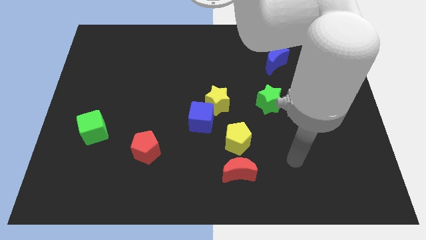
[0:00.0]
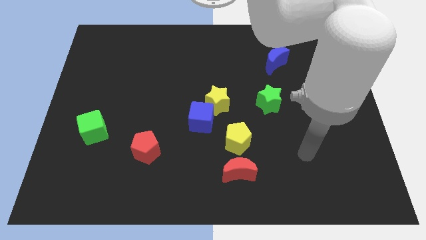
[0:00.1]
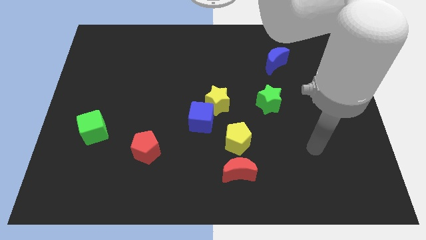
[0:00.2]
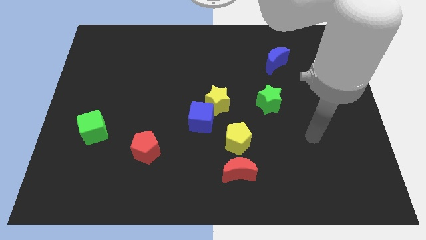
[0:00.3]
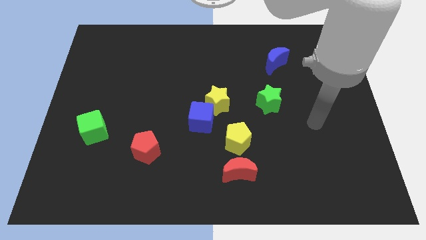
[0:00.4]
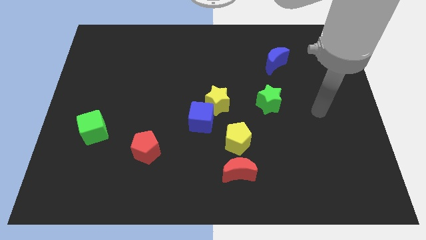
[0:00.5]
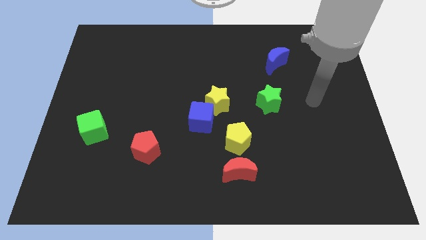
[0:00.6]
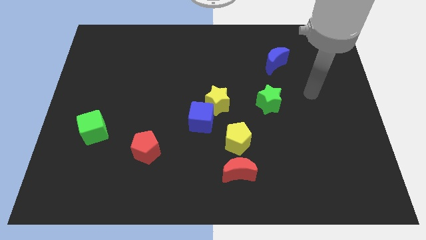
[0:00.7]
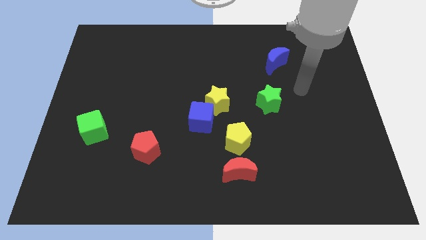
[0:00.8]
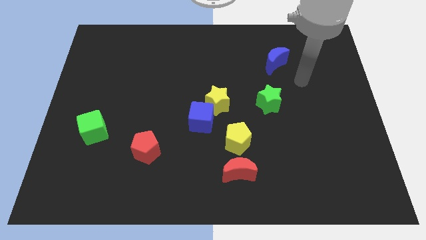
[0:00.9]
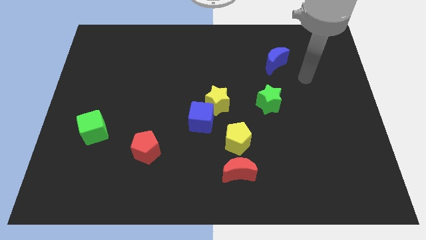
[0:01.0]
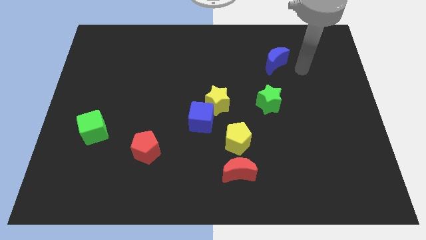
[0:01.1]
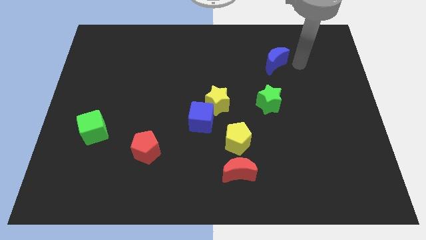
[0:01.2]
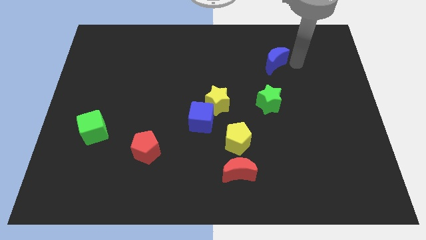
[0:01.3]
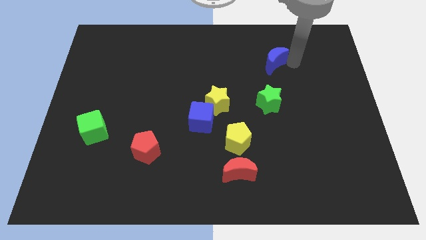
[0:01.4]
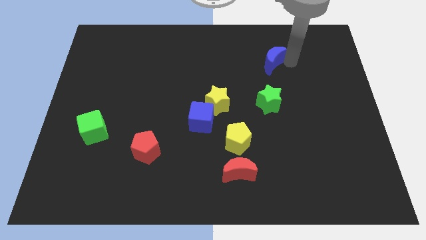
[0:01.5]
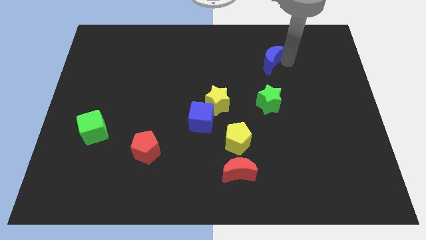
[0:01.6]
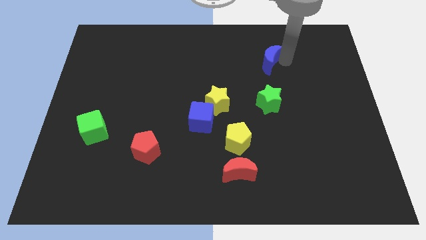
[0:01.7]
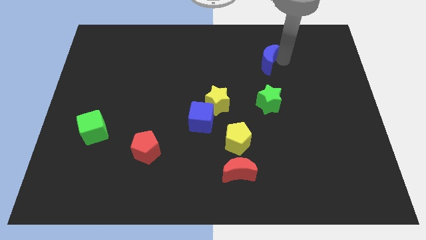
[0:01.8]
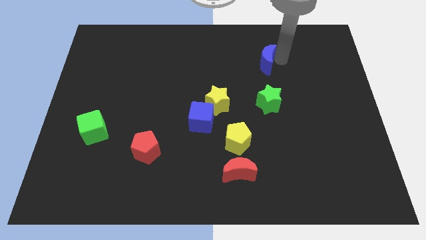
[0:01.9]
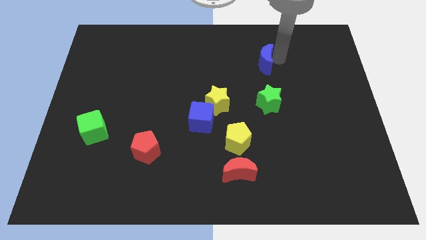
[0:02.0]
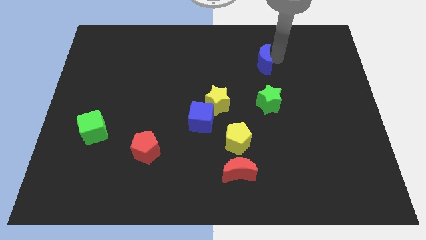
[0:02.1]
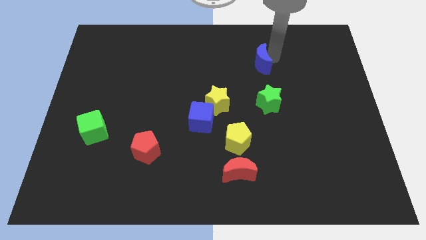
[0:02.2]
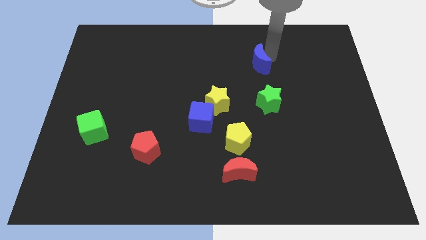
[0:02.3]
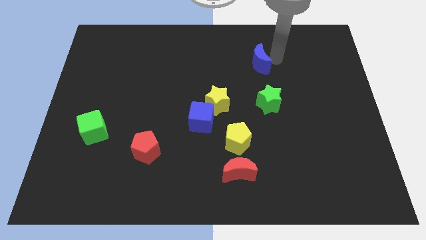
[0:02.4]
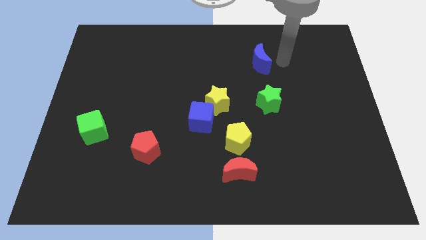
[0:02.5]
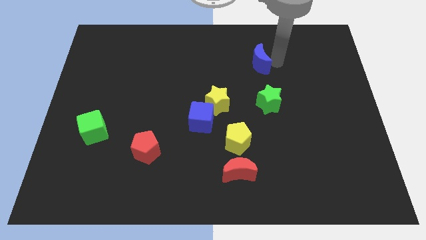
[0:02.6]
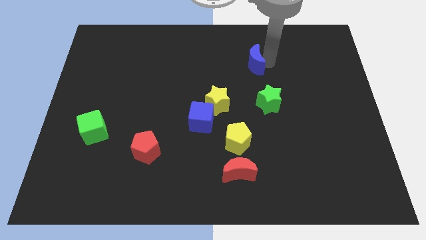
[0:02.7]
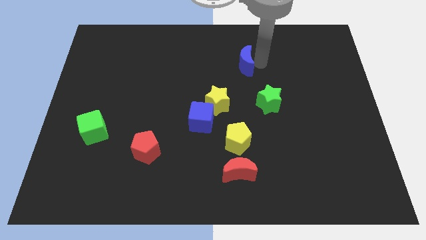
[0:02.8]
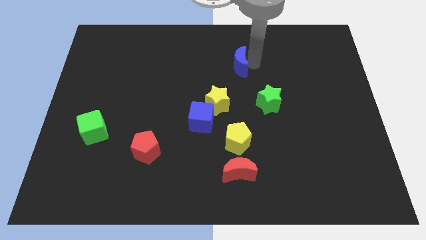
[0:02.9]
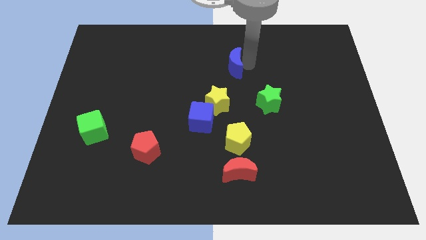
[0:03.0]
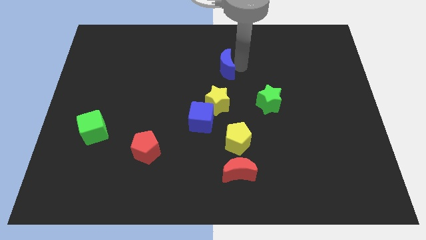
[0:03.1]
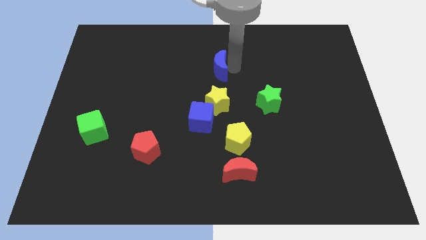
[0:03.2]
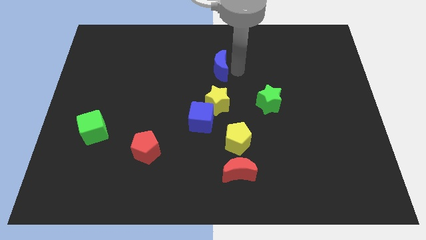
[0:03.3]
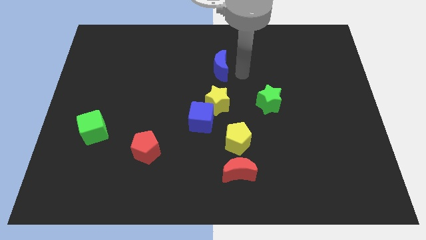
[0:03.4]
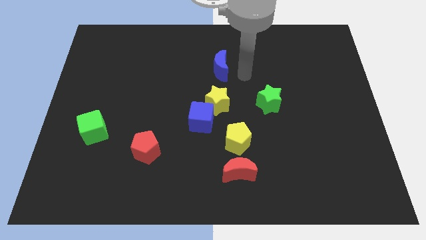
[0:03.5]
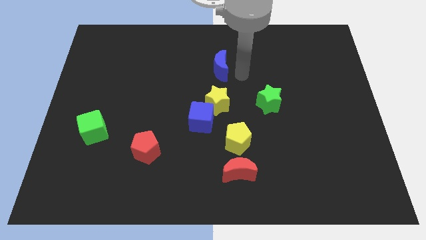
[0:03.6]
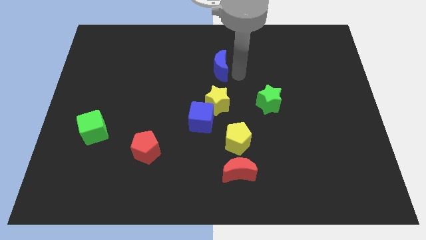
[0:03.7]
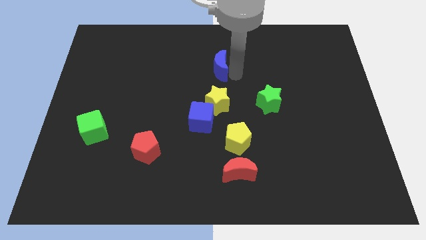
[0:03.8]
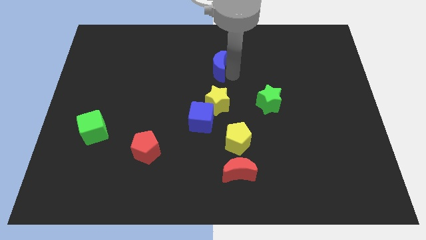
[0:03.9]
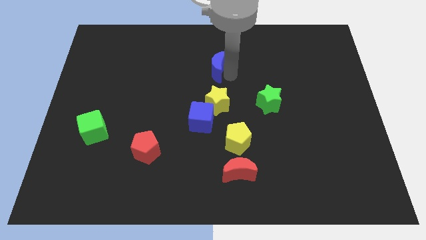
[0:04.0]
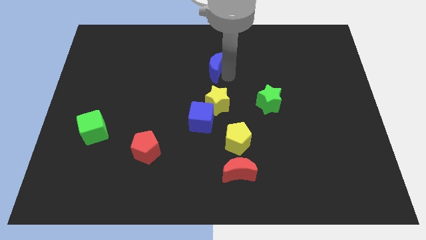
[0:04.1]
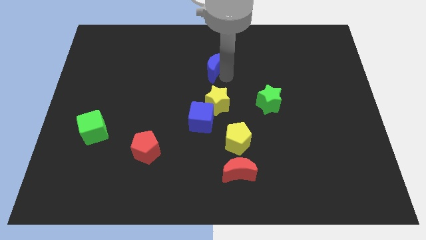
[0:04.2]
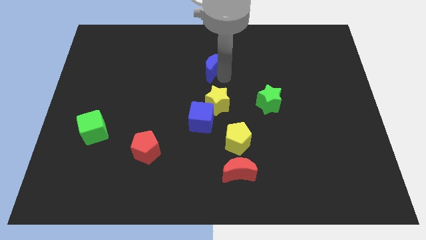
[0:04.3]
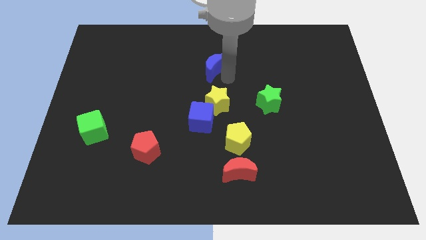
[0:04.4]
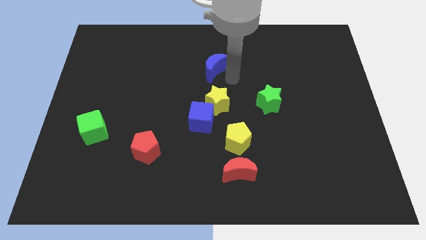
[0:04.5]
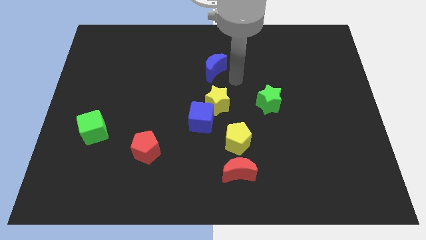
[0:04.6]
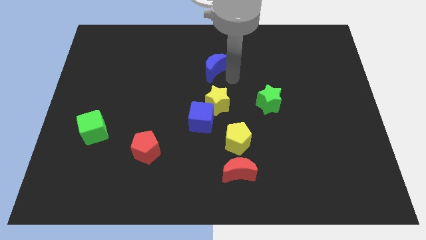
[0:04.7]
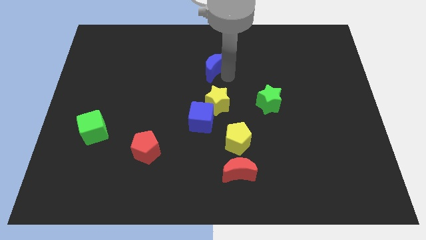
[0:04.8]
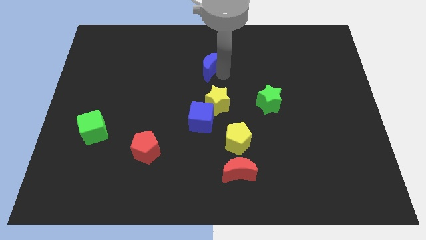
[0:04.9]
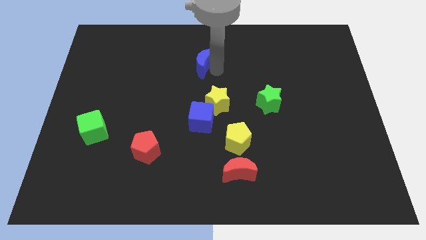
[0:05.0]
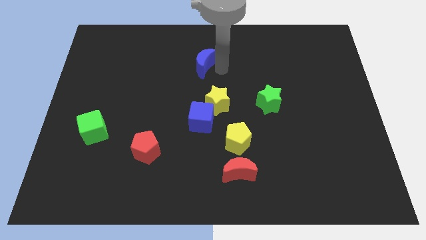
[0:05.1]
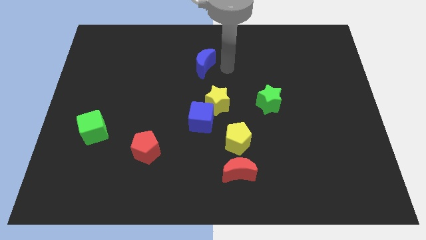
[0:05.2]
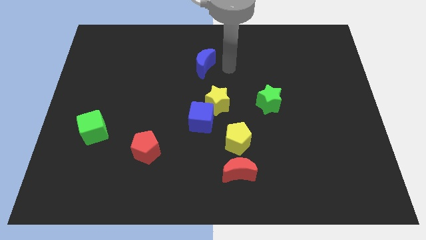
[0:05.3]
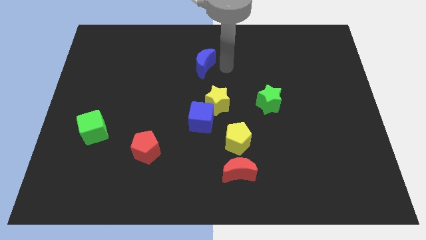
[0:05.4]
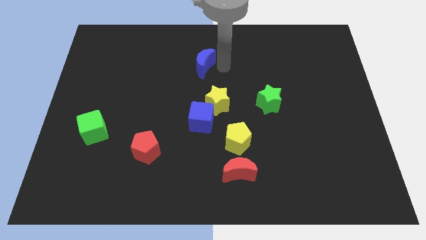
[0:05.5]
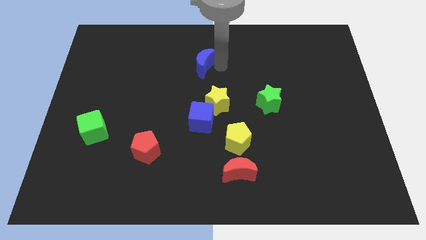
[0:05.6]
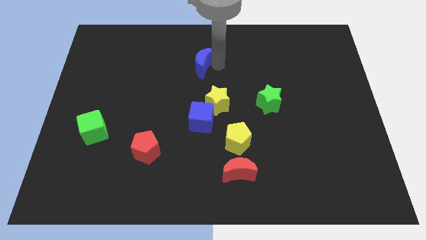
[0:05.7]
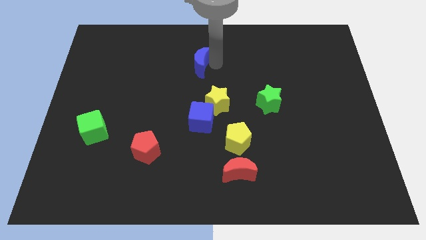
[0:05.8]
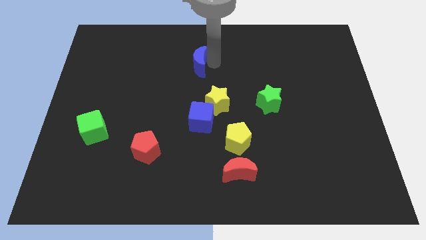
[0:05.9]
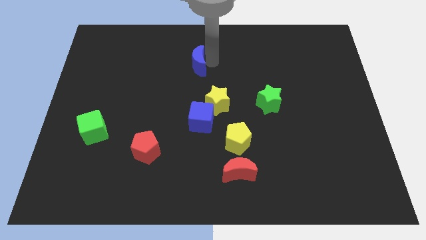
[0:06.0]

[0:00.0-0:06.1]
move the blue moon left

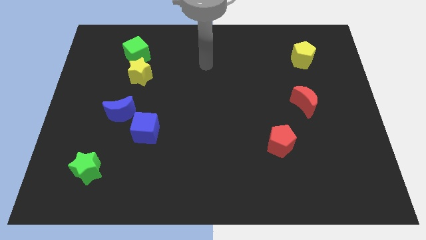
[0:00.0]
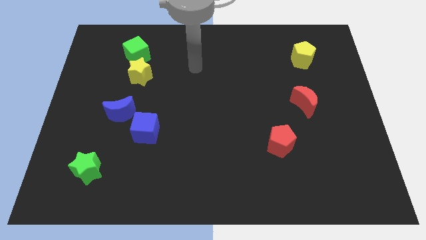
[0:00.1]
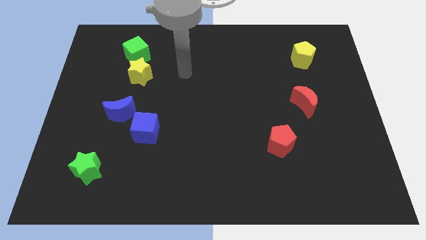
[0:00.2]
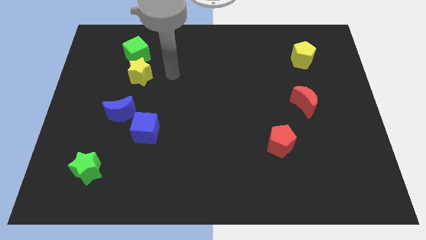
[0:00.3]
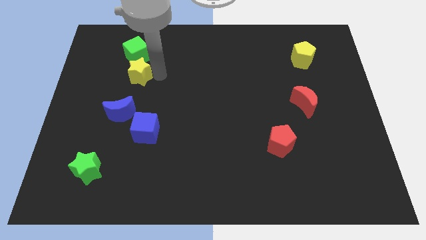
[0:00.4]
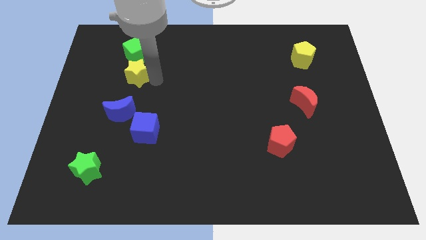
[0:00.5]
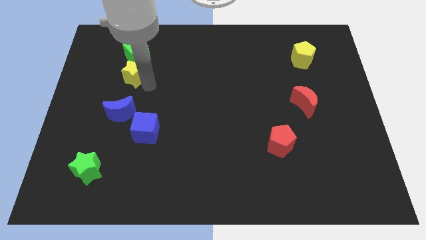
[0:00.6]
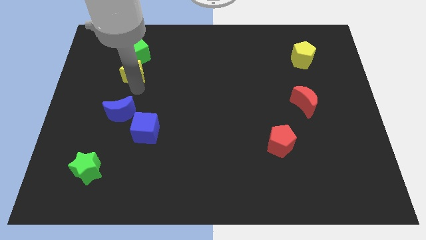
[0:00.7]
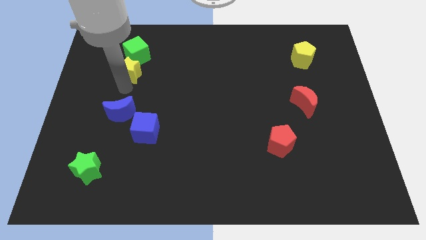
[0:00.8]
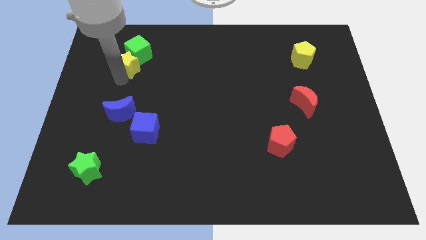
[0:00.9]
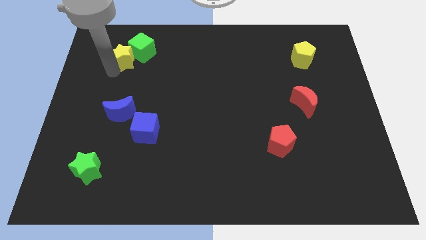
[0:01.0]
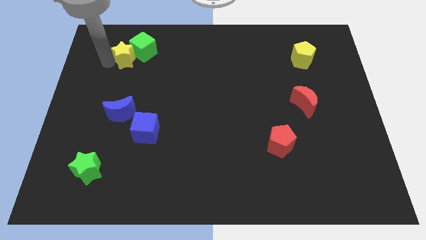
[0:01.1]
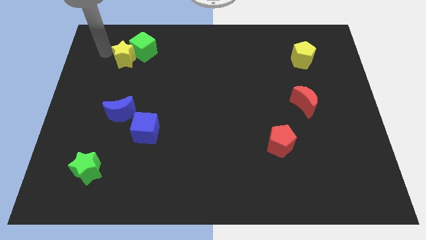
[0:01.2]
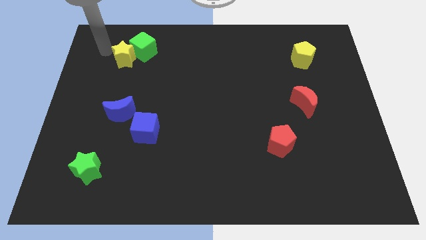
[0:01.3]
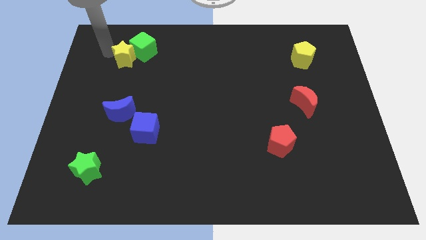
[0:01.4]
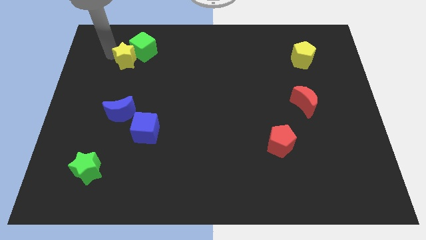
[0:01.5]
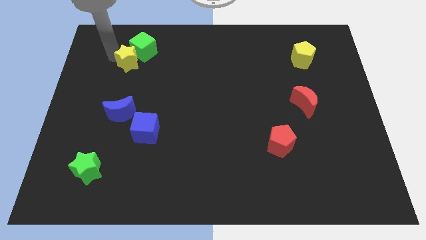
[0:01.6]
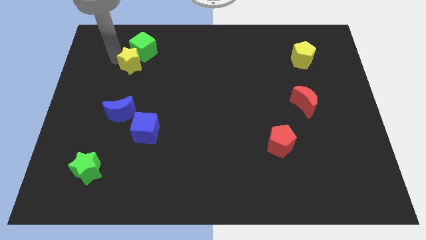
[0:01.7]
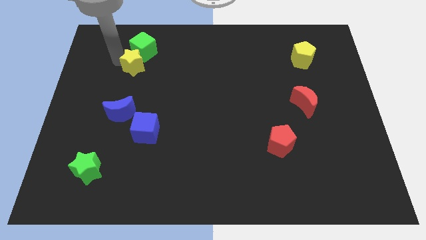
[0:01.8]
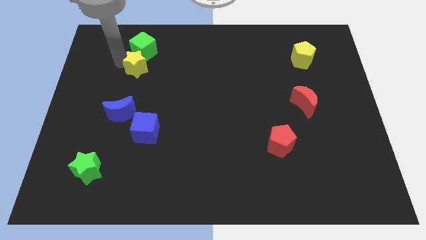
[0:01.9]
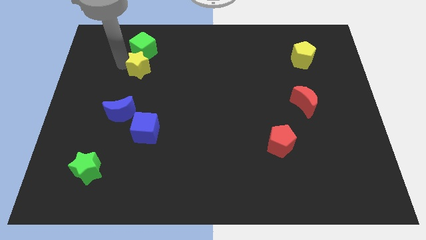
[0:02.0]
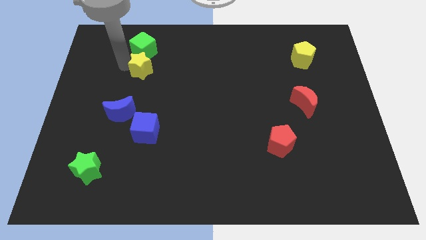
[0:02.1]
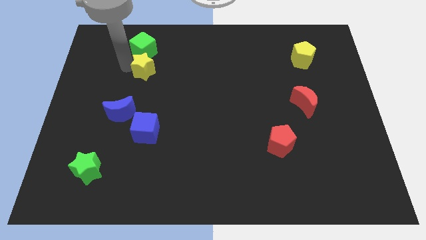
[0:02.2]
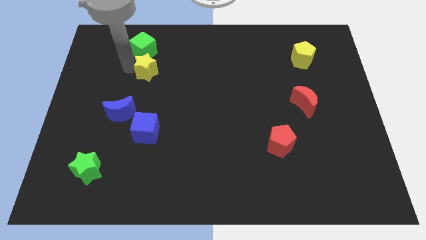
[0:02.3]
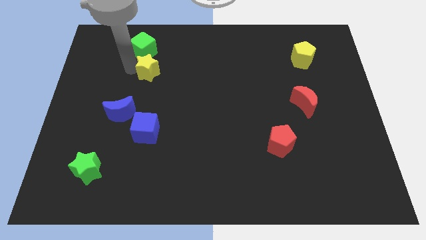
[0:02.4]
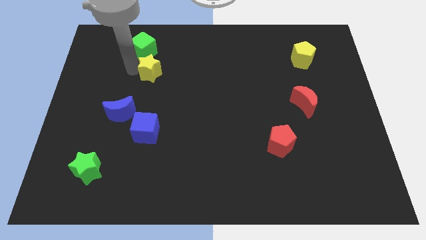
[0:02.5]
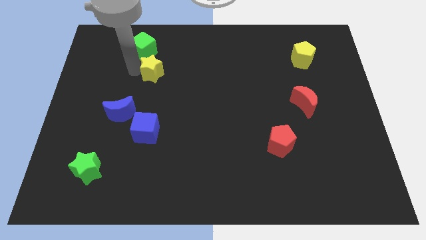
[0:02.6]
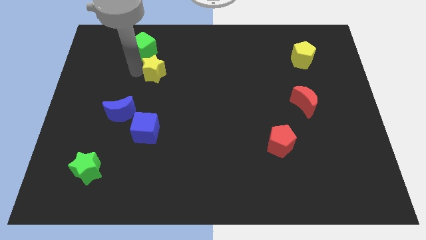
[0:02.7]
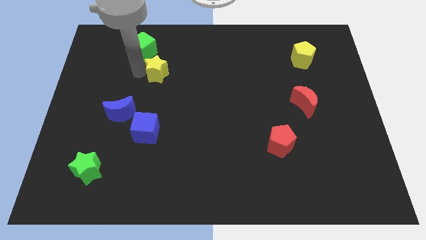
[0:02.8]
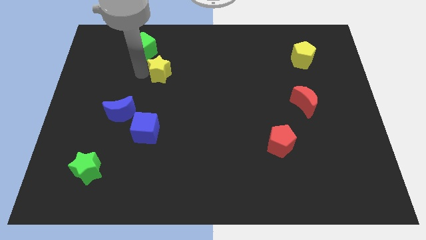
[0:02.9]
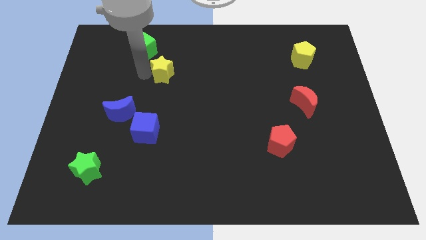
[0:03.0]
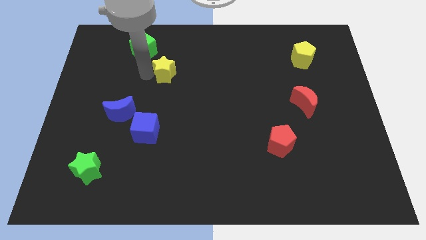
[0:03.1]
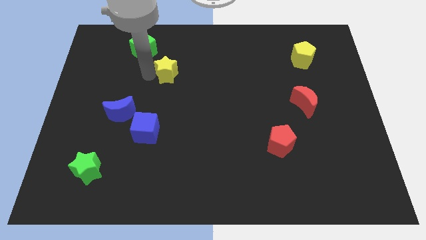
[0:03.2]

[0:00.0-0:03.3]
slide the yellow star right slightly
